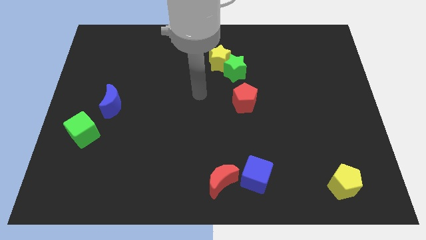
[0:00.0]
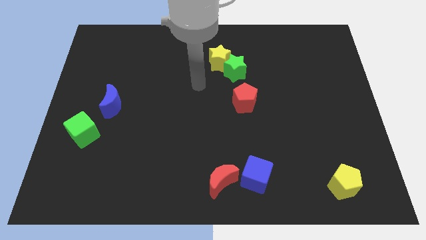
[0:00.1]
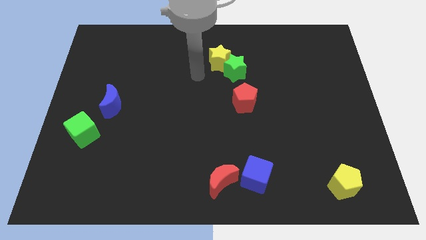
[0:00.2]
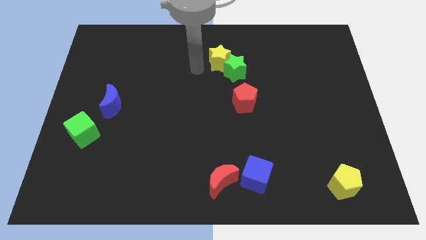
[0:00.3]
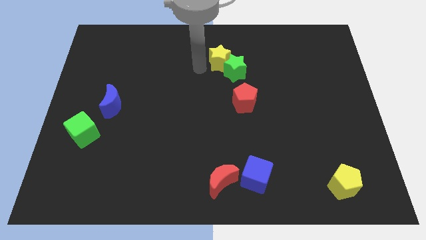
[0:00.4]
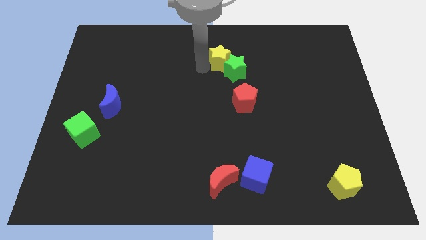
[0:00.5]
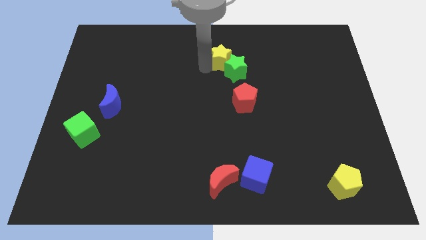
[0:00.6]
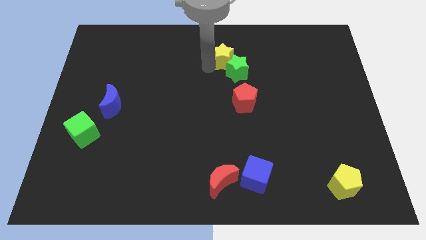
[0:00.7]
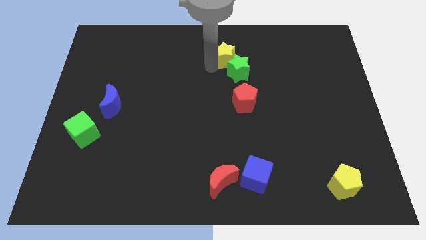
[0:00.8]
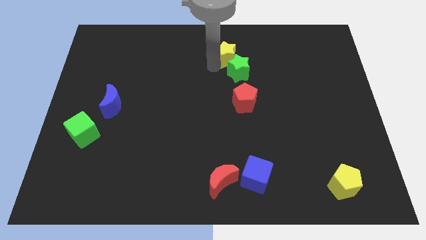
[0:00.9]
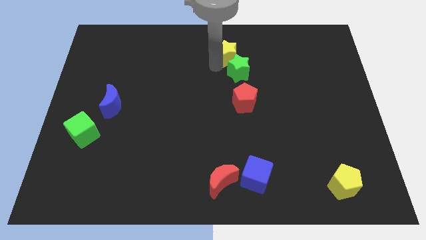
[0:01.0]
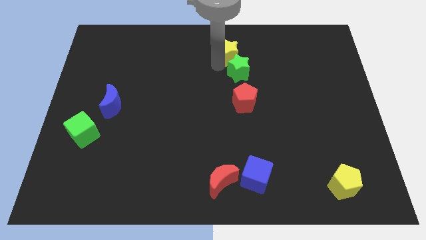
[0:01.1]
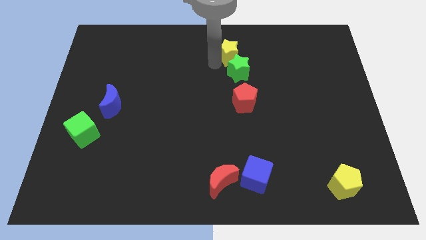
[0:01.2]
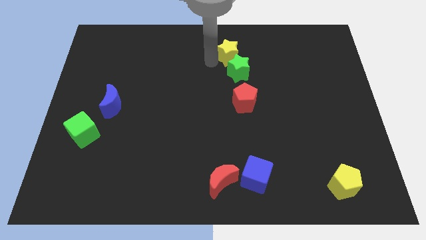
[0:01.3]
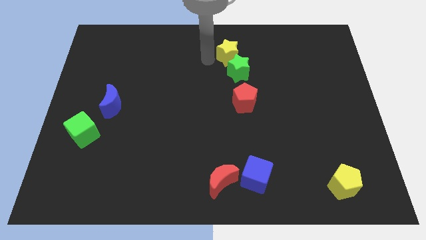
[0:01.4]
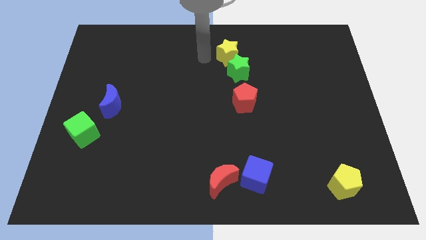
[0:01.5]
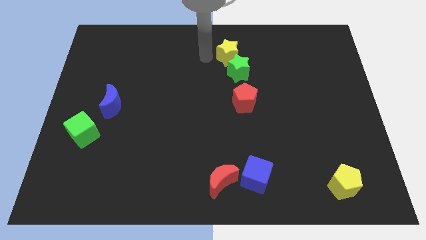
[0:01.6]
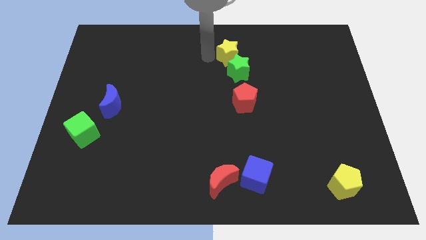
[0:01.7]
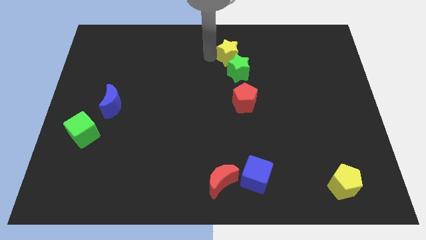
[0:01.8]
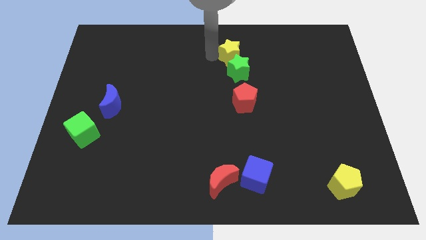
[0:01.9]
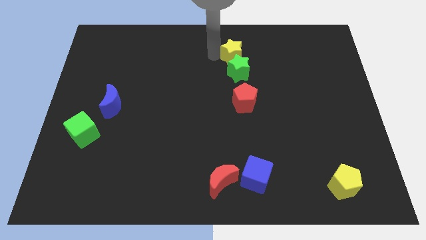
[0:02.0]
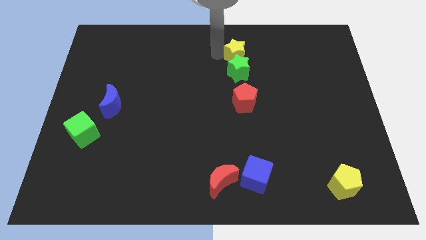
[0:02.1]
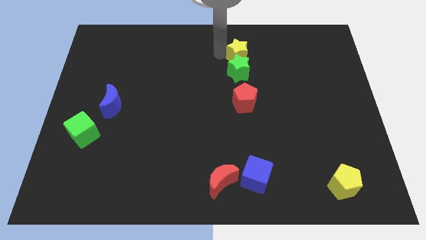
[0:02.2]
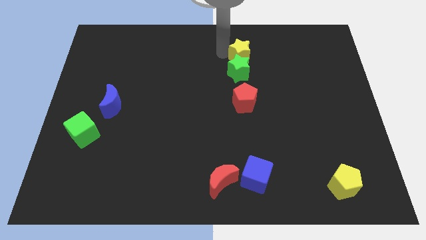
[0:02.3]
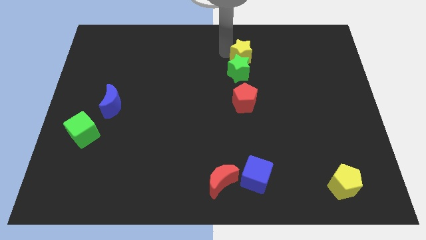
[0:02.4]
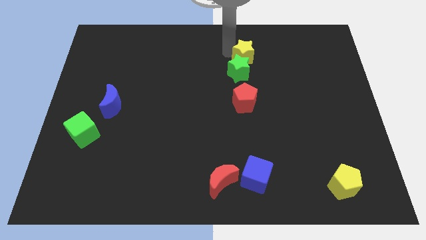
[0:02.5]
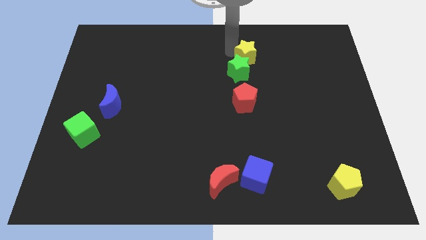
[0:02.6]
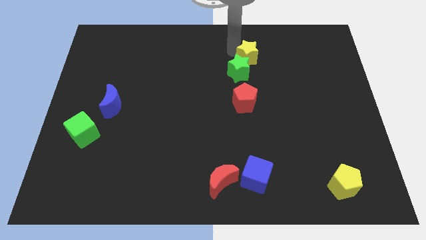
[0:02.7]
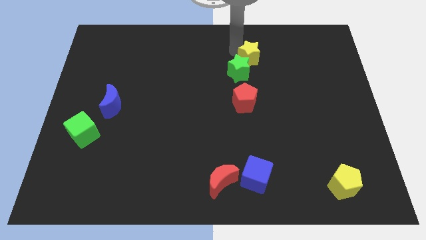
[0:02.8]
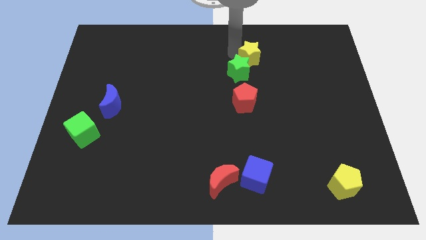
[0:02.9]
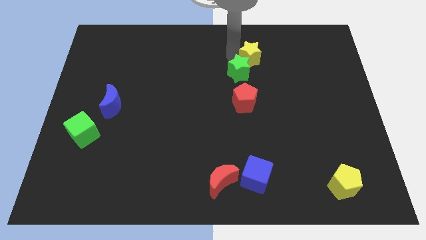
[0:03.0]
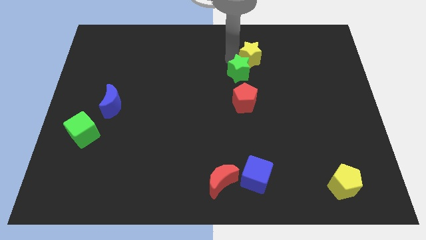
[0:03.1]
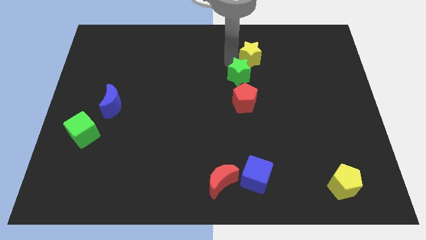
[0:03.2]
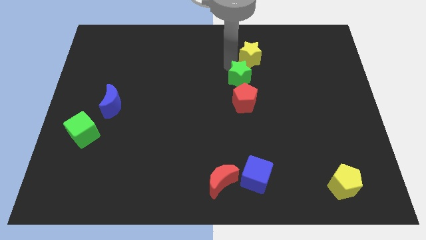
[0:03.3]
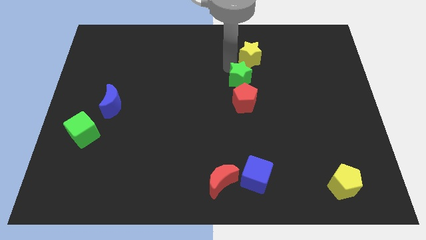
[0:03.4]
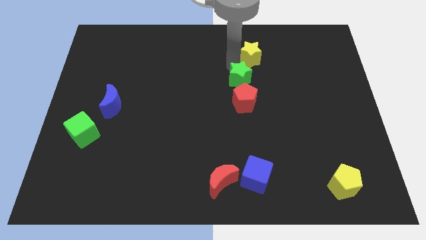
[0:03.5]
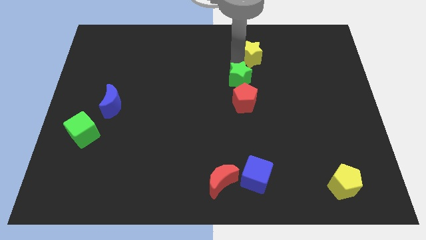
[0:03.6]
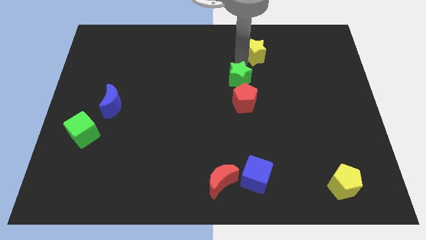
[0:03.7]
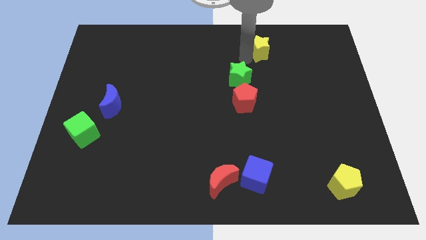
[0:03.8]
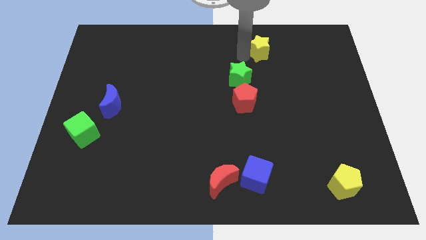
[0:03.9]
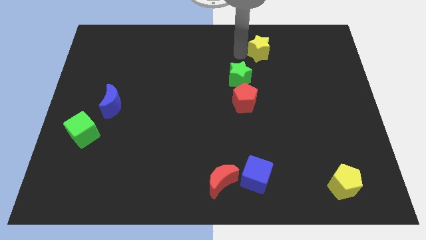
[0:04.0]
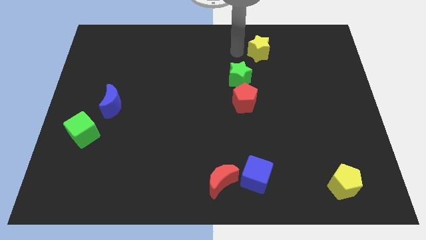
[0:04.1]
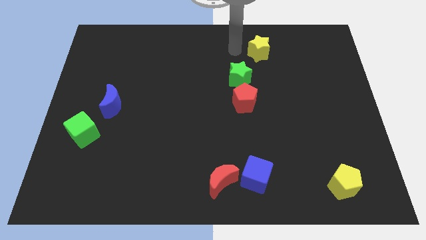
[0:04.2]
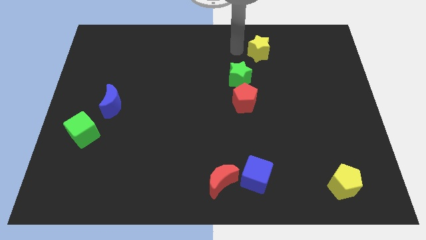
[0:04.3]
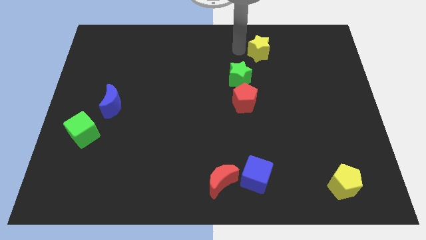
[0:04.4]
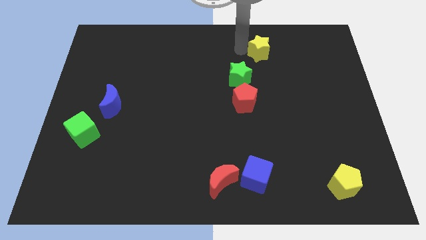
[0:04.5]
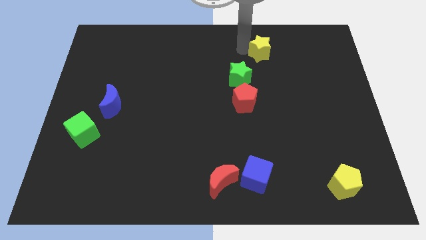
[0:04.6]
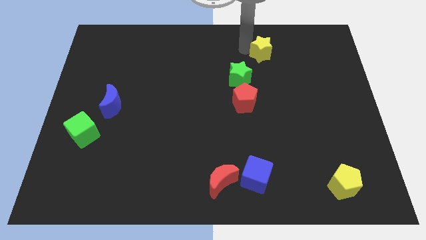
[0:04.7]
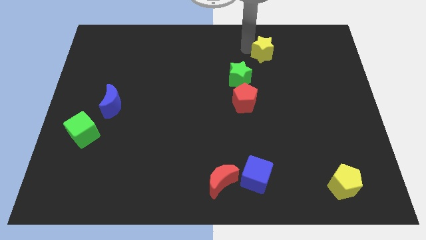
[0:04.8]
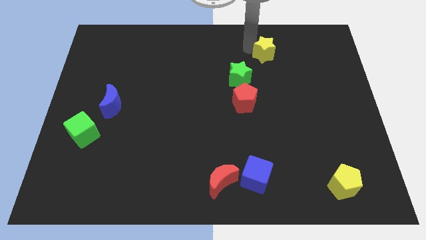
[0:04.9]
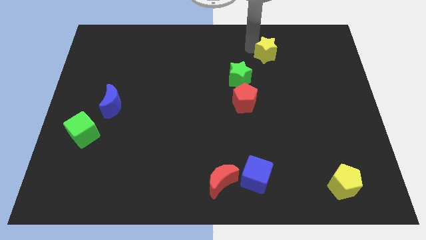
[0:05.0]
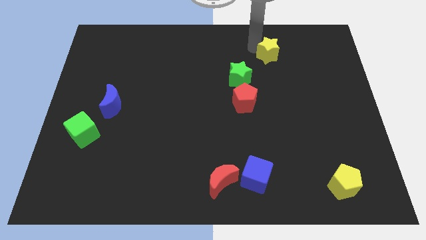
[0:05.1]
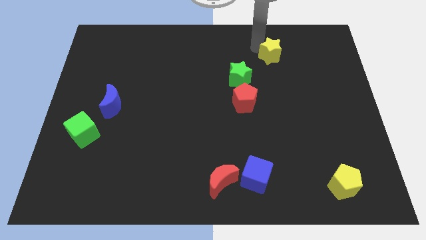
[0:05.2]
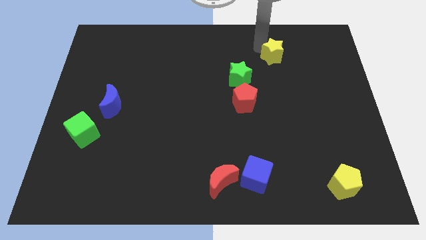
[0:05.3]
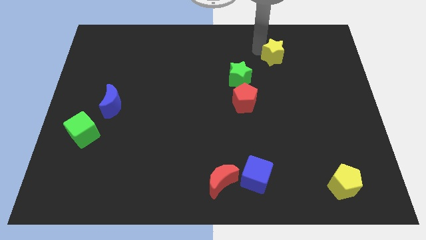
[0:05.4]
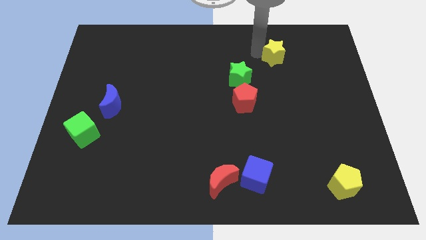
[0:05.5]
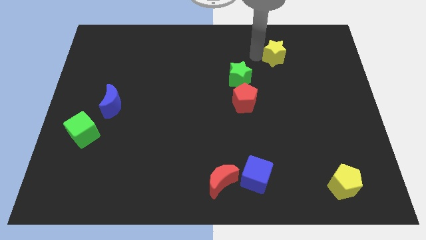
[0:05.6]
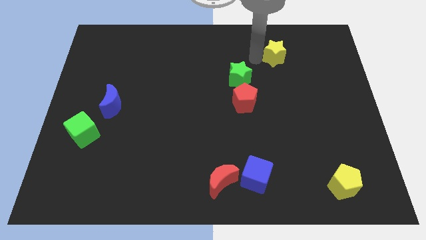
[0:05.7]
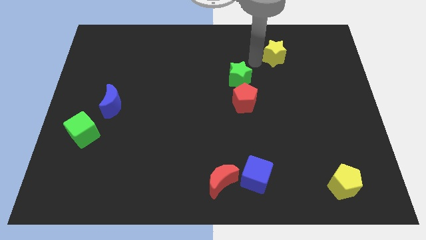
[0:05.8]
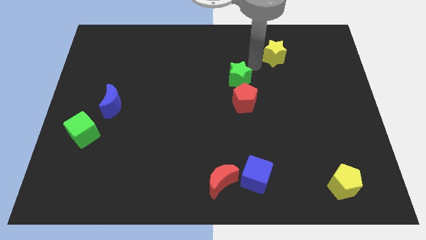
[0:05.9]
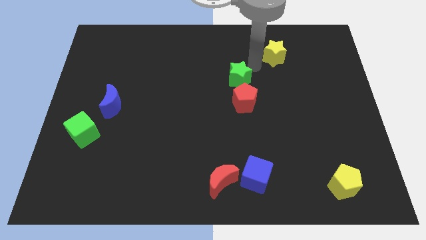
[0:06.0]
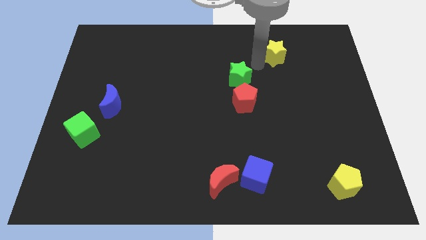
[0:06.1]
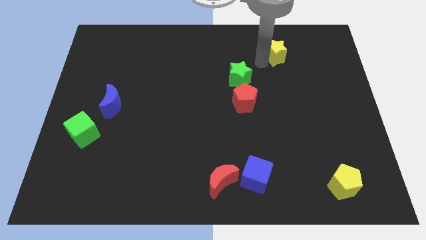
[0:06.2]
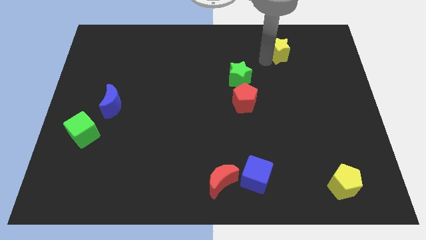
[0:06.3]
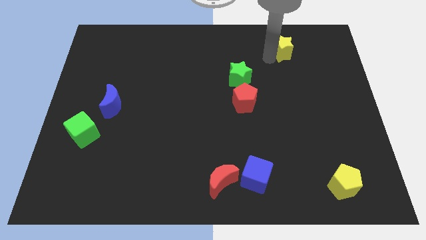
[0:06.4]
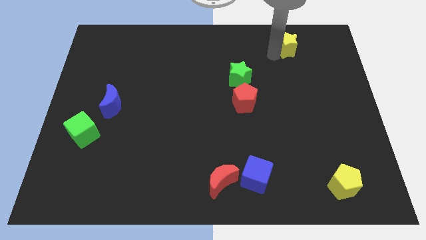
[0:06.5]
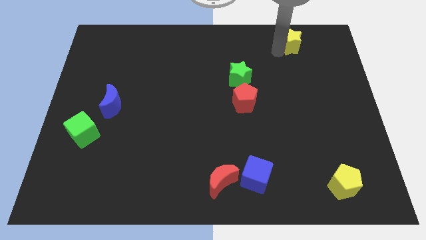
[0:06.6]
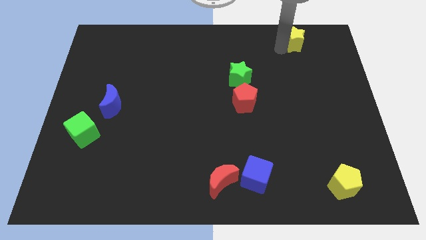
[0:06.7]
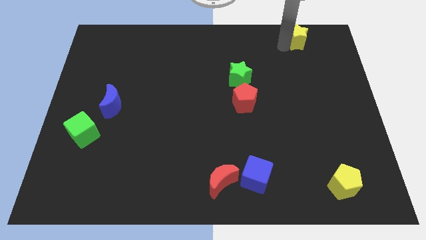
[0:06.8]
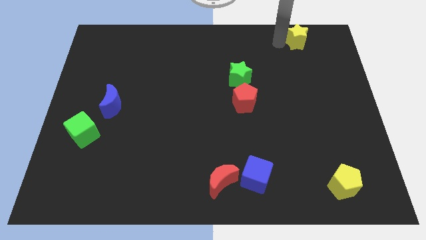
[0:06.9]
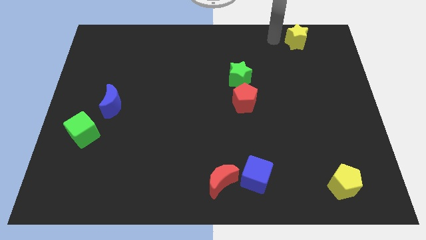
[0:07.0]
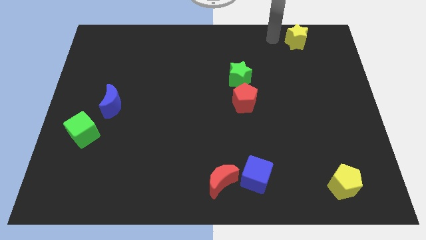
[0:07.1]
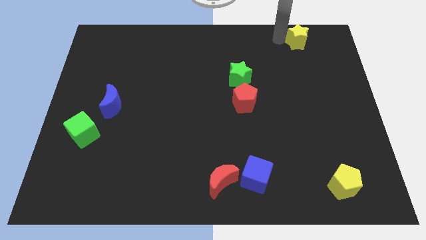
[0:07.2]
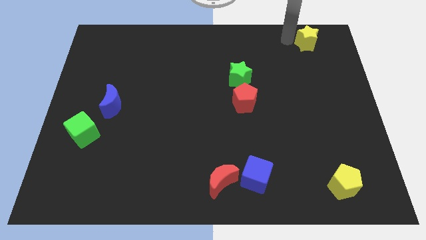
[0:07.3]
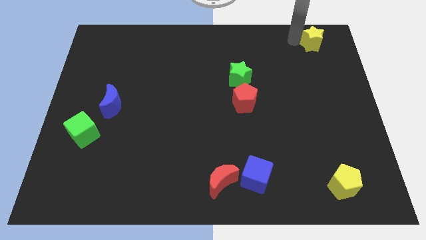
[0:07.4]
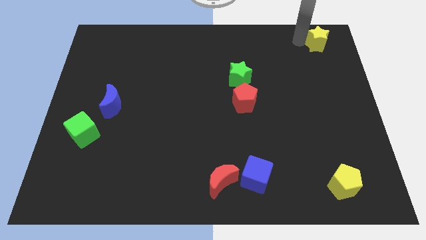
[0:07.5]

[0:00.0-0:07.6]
put the yellow star to the upper right corner
